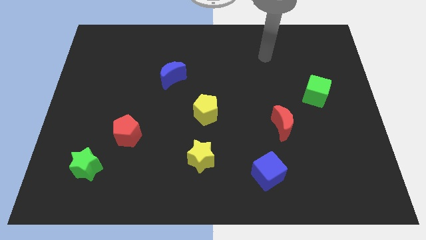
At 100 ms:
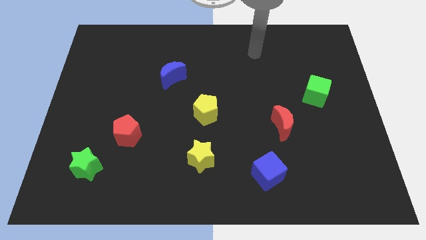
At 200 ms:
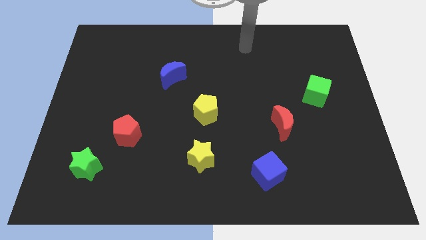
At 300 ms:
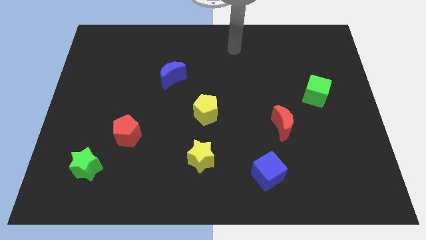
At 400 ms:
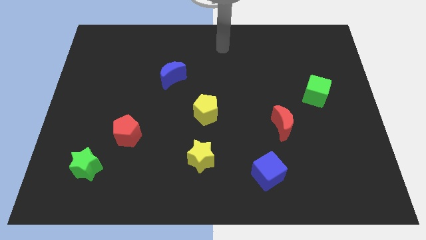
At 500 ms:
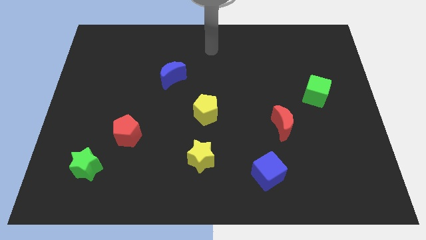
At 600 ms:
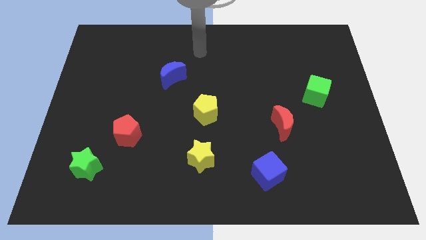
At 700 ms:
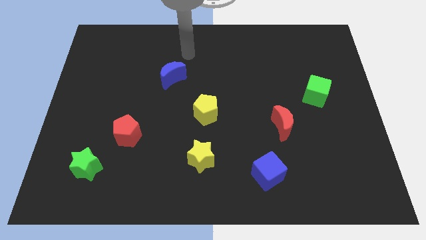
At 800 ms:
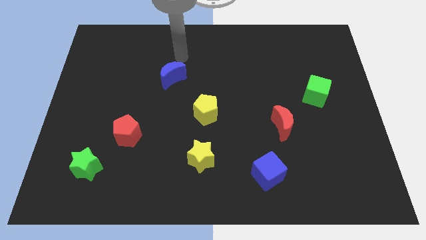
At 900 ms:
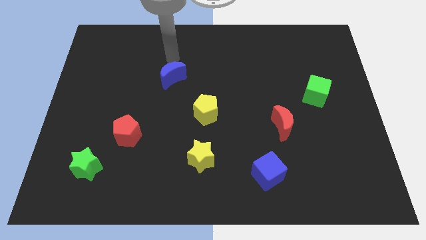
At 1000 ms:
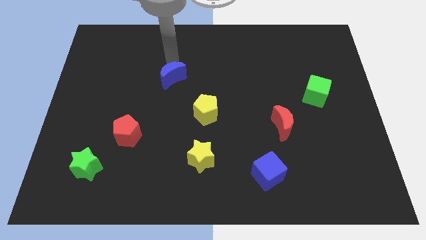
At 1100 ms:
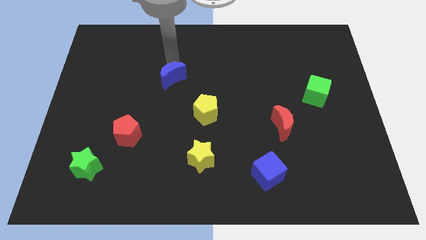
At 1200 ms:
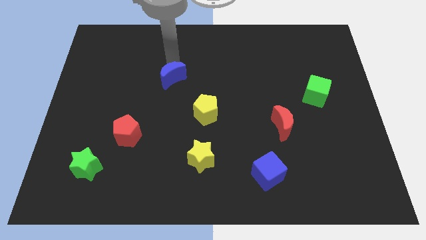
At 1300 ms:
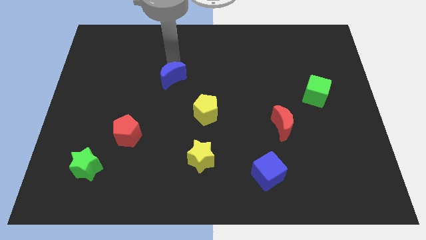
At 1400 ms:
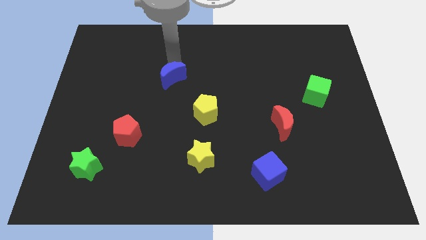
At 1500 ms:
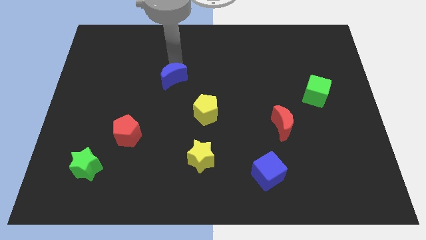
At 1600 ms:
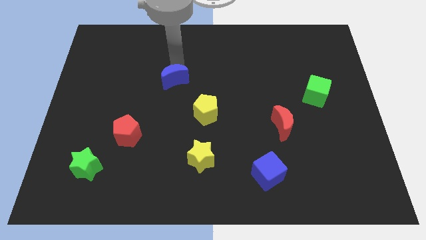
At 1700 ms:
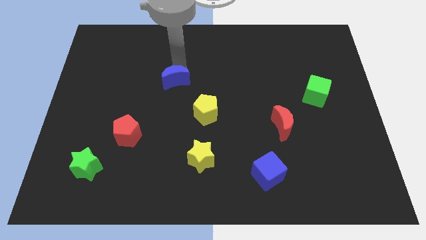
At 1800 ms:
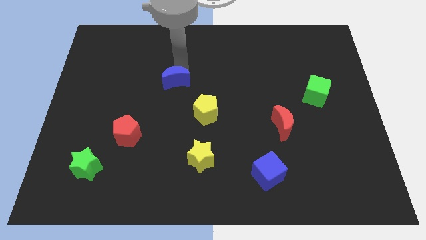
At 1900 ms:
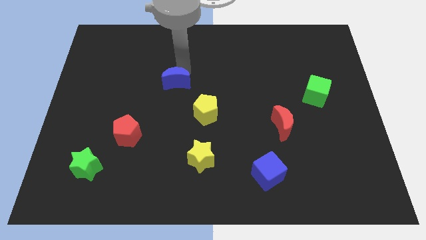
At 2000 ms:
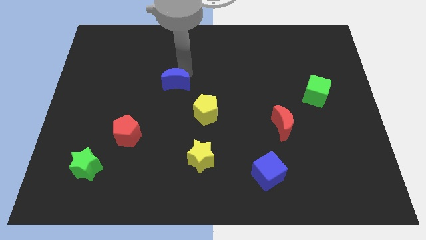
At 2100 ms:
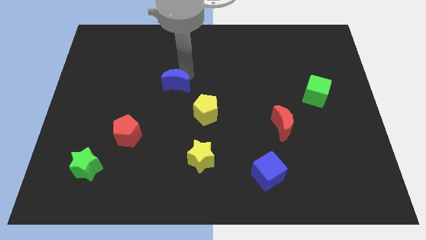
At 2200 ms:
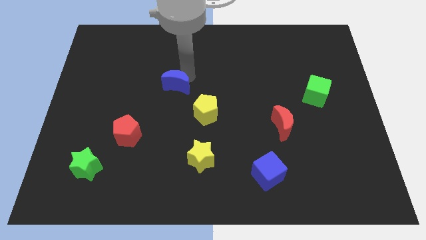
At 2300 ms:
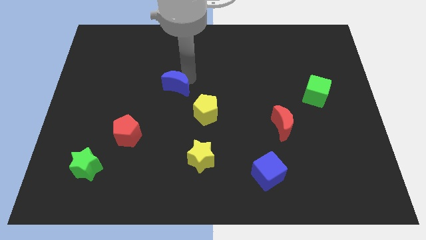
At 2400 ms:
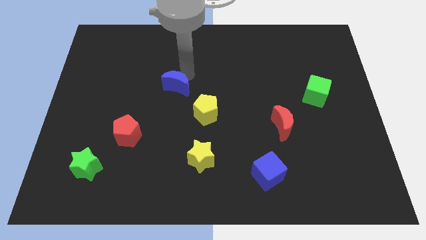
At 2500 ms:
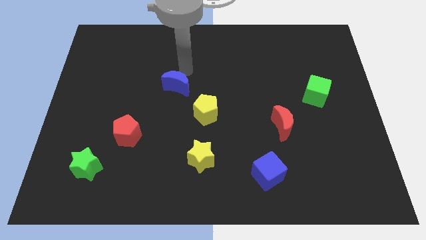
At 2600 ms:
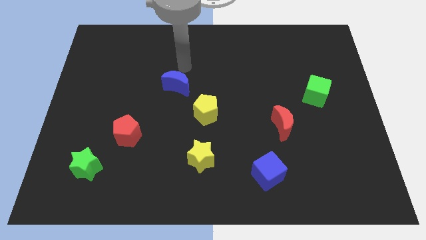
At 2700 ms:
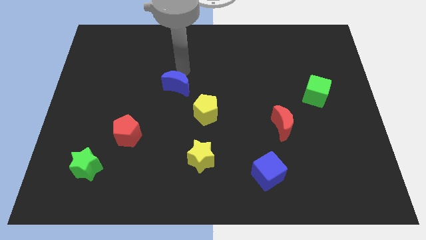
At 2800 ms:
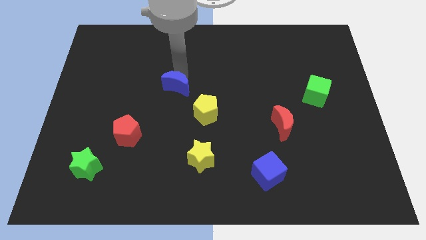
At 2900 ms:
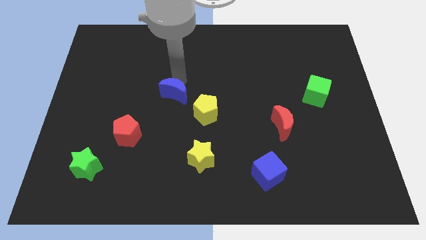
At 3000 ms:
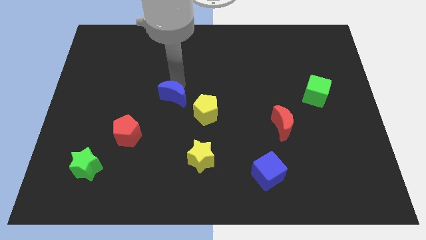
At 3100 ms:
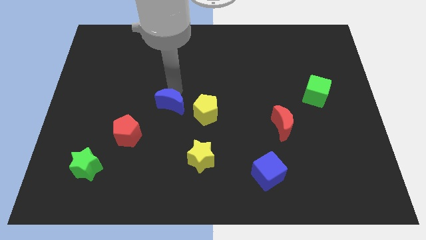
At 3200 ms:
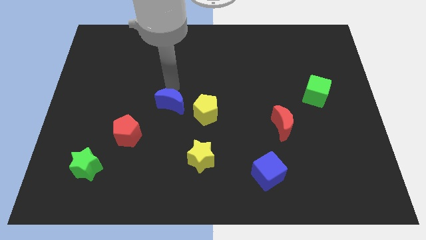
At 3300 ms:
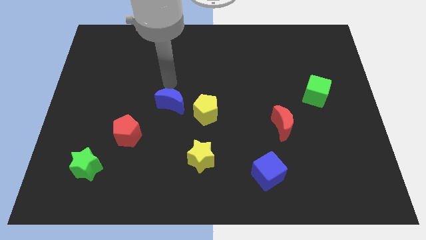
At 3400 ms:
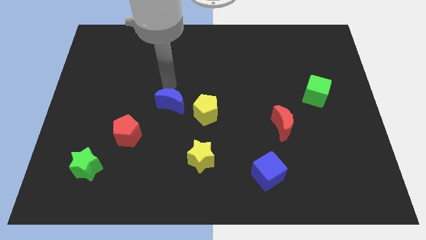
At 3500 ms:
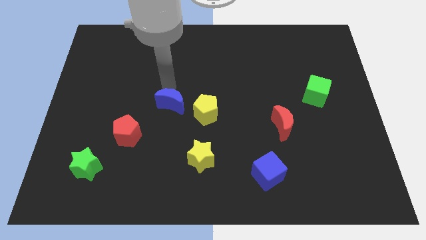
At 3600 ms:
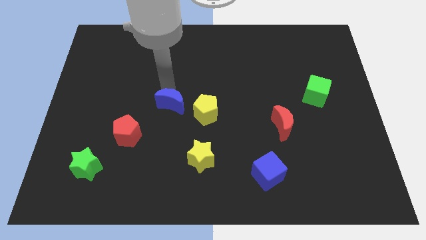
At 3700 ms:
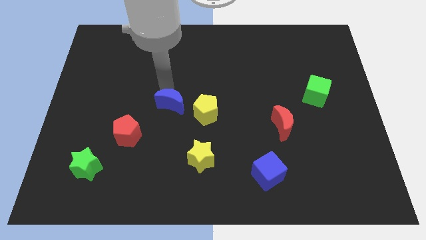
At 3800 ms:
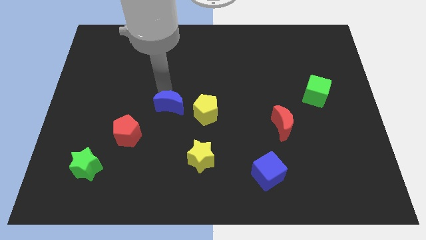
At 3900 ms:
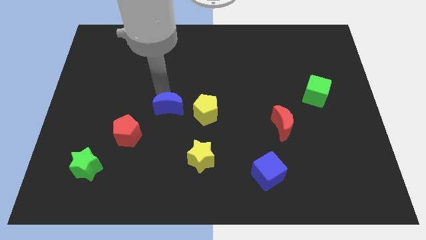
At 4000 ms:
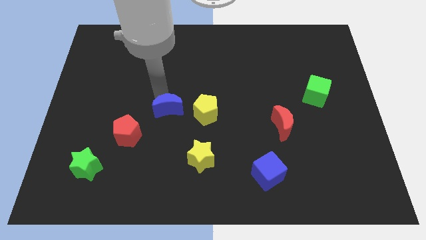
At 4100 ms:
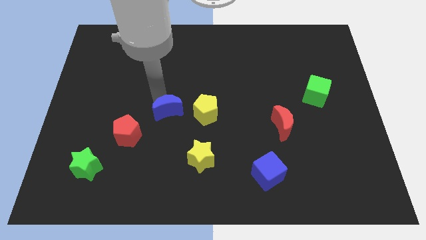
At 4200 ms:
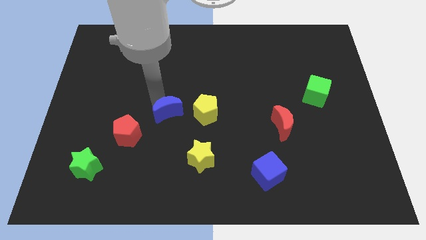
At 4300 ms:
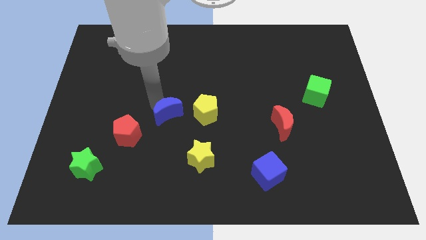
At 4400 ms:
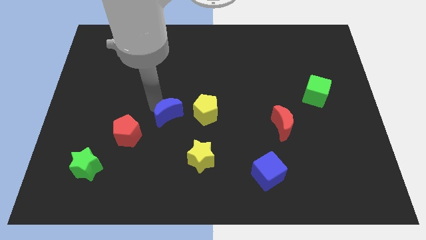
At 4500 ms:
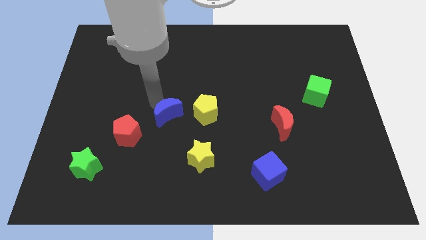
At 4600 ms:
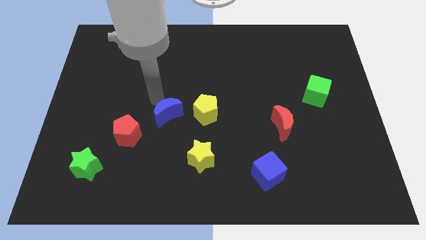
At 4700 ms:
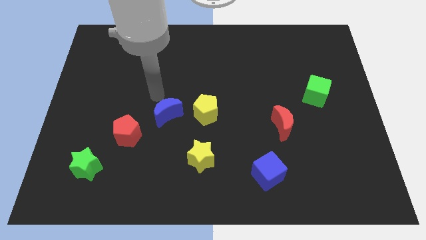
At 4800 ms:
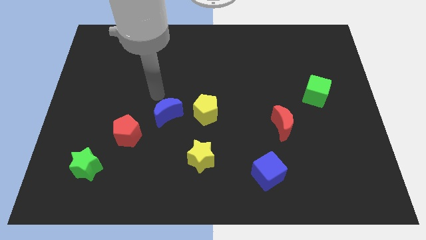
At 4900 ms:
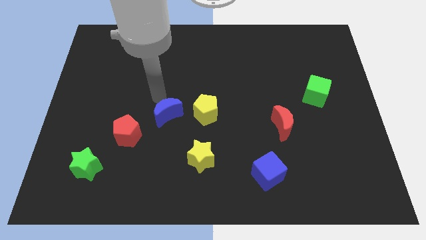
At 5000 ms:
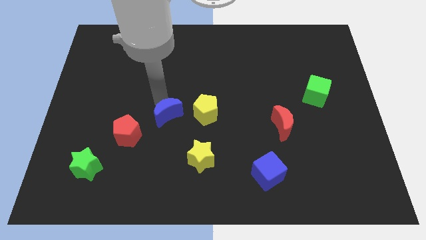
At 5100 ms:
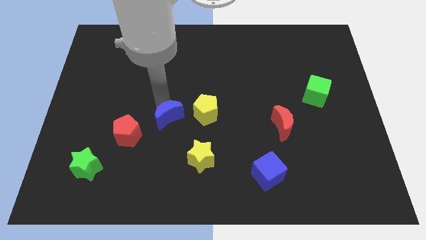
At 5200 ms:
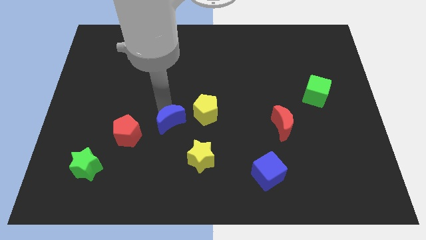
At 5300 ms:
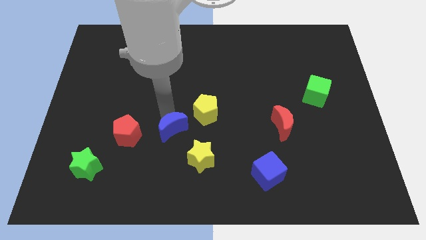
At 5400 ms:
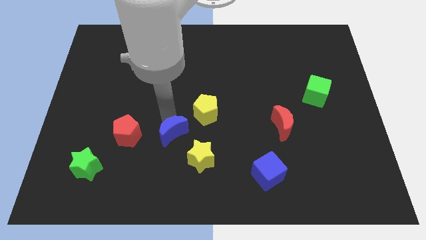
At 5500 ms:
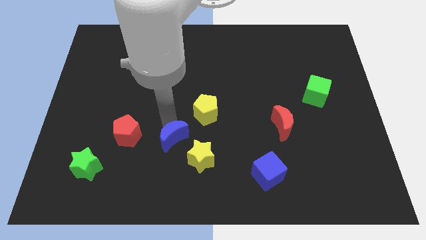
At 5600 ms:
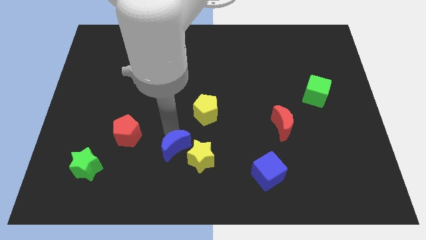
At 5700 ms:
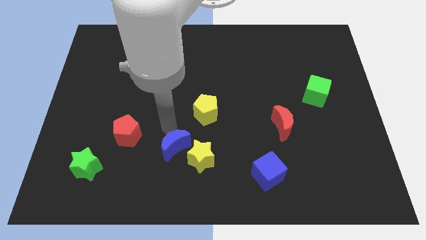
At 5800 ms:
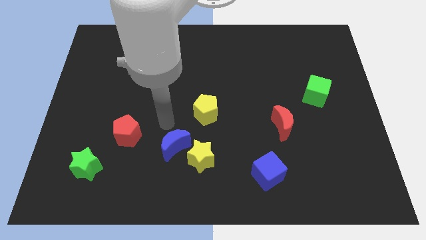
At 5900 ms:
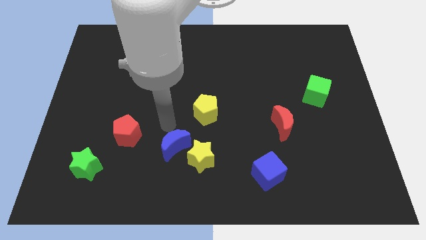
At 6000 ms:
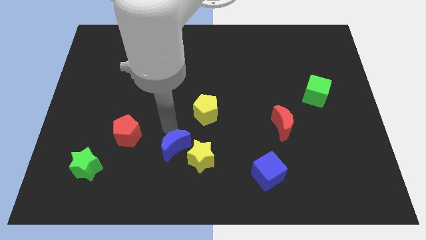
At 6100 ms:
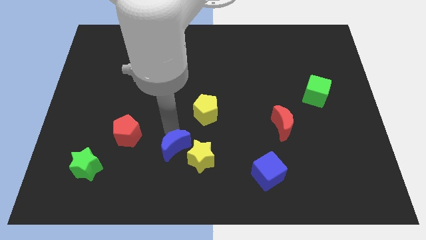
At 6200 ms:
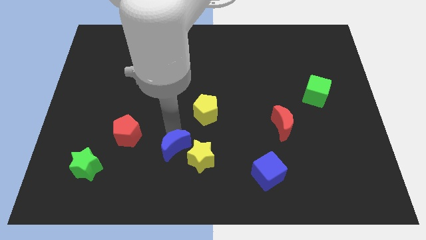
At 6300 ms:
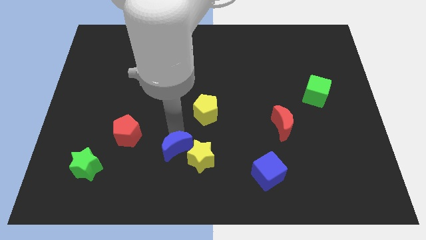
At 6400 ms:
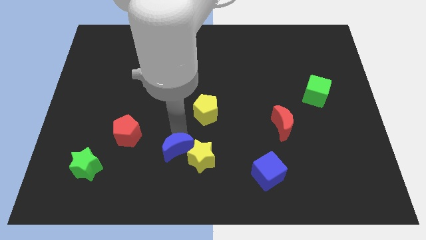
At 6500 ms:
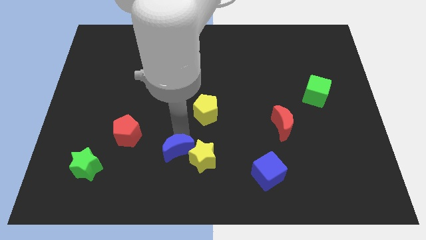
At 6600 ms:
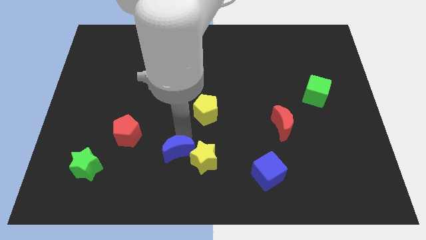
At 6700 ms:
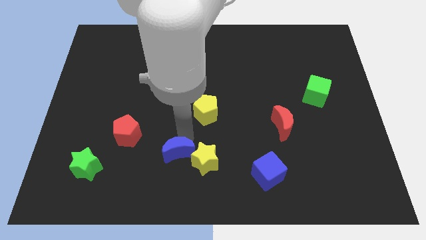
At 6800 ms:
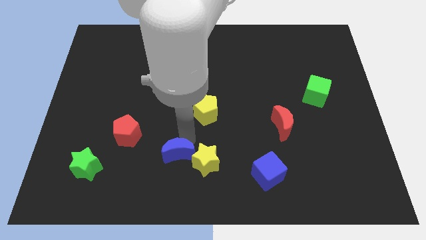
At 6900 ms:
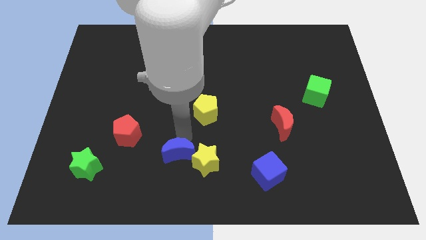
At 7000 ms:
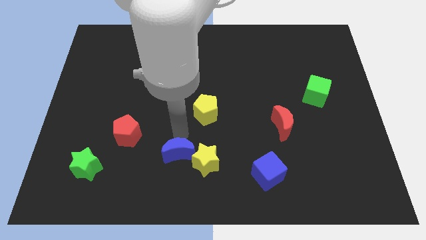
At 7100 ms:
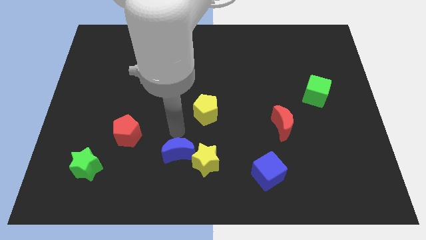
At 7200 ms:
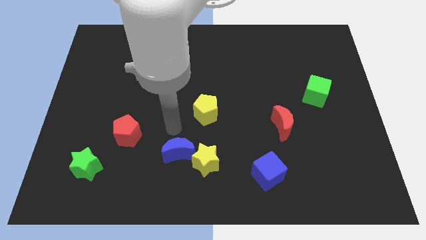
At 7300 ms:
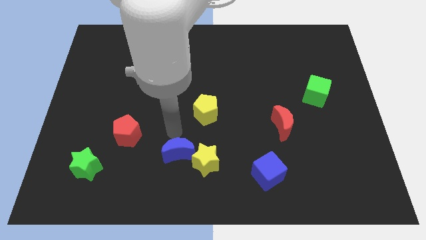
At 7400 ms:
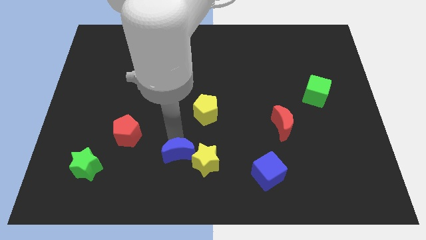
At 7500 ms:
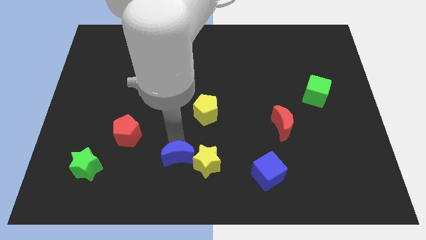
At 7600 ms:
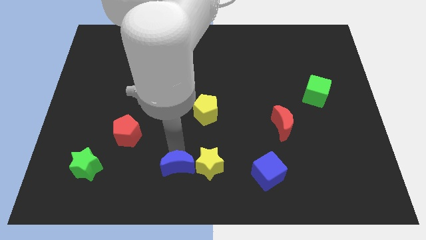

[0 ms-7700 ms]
push the blue moon to the bottom side
